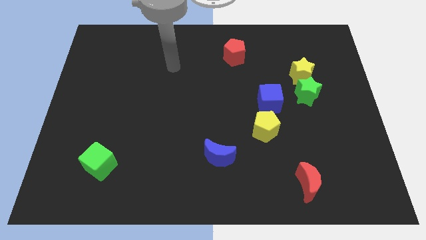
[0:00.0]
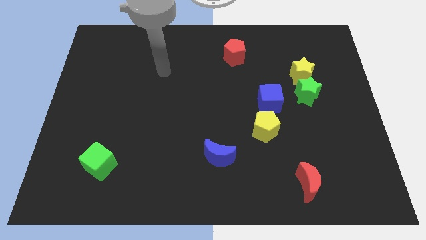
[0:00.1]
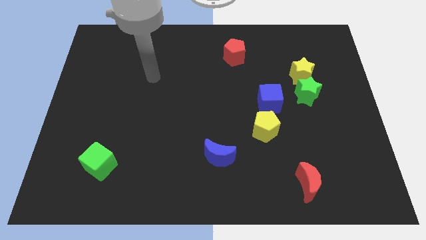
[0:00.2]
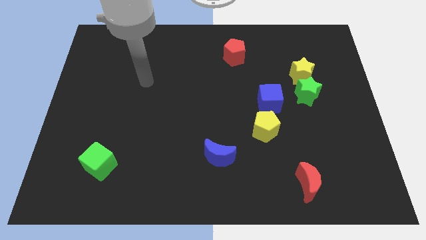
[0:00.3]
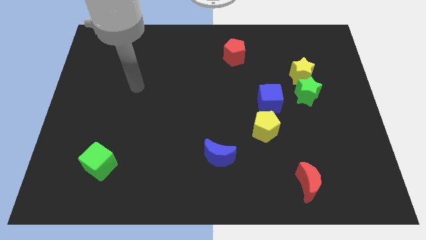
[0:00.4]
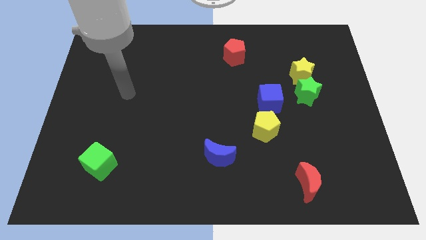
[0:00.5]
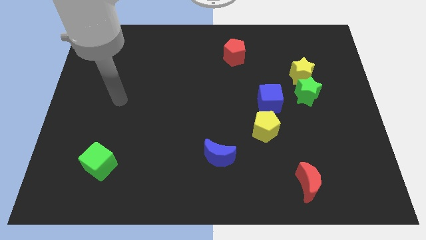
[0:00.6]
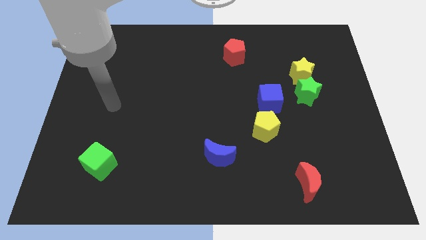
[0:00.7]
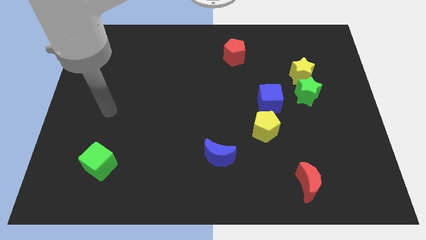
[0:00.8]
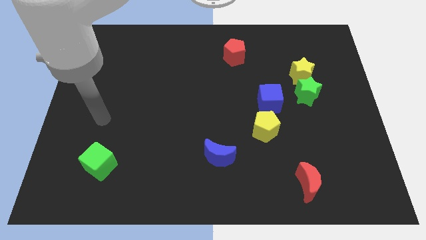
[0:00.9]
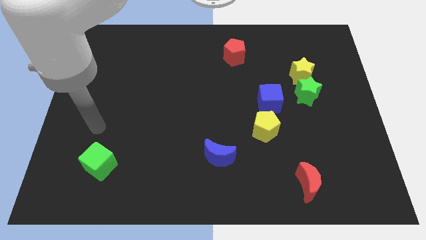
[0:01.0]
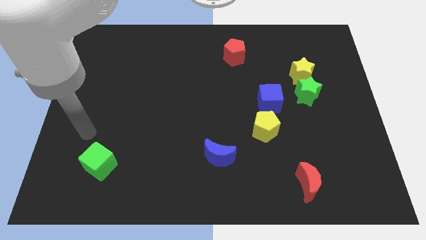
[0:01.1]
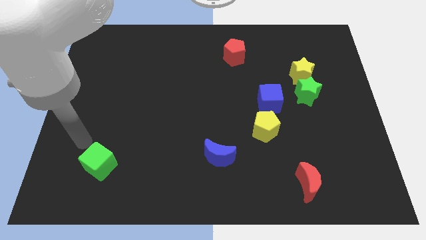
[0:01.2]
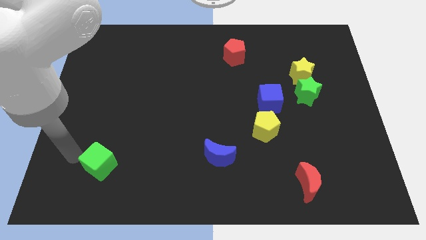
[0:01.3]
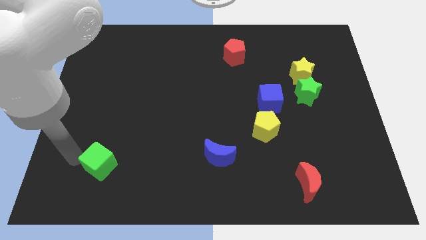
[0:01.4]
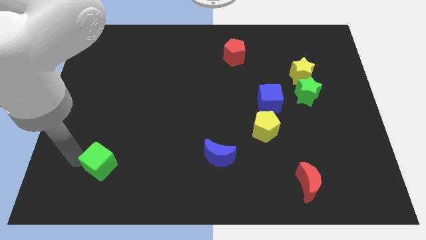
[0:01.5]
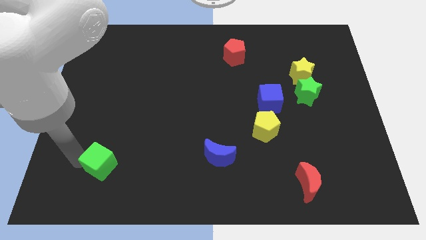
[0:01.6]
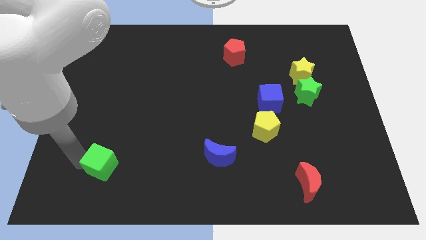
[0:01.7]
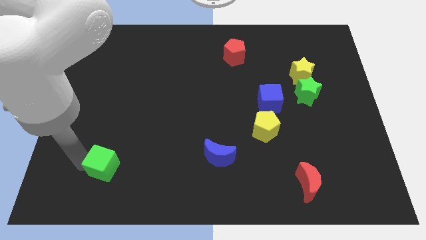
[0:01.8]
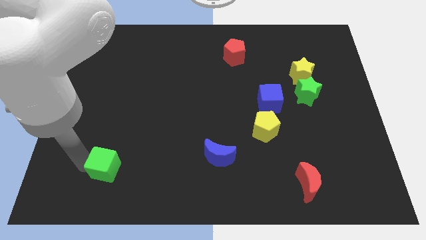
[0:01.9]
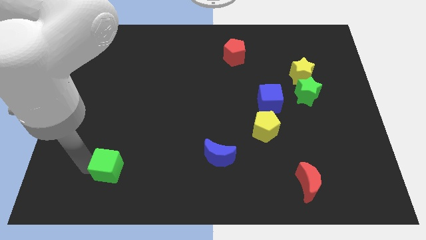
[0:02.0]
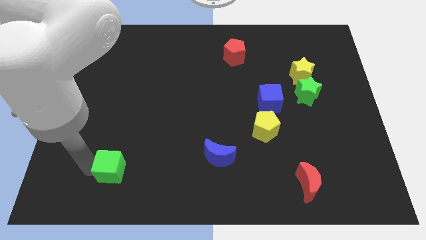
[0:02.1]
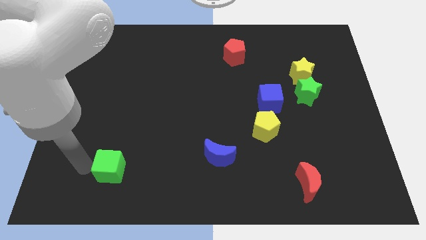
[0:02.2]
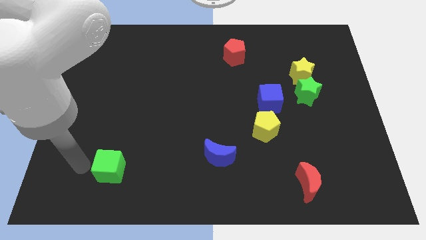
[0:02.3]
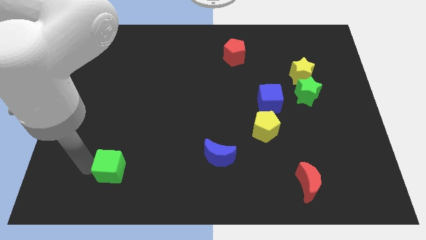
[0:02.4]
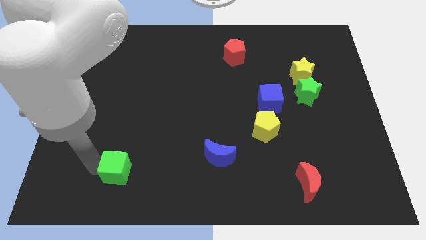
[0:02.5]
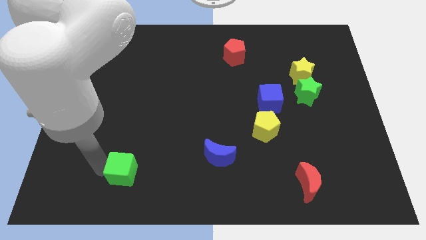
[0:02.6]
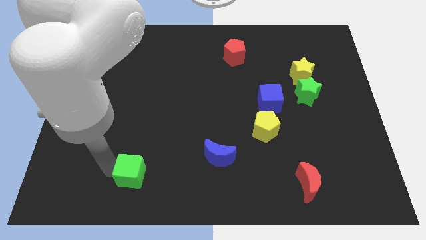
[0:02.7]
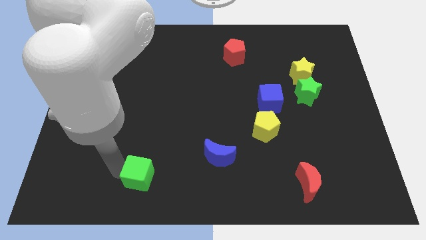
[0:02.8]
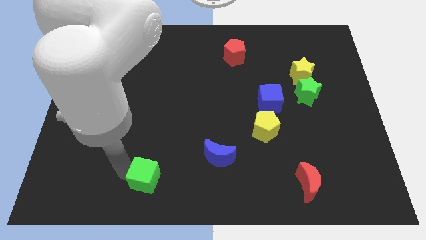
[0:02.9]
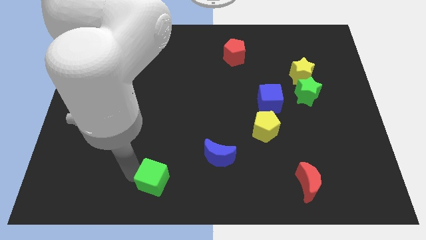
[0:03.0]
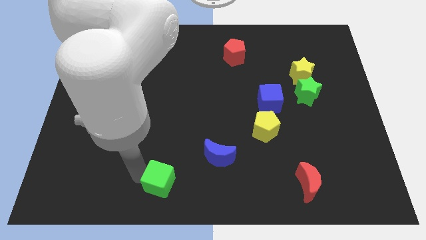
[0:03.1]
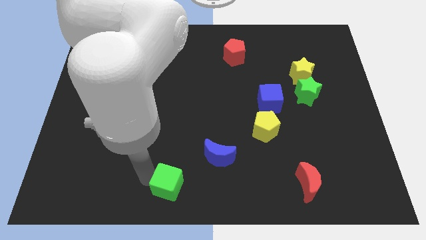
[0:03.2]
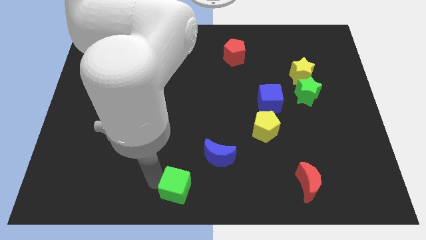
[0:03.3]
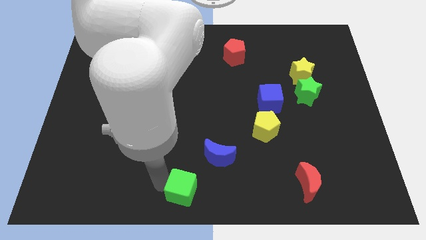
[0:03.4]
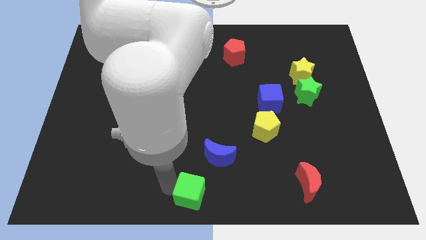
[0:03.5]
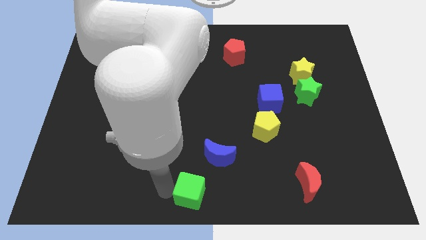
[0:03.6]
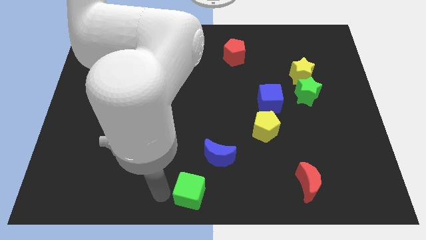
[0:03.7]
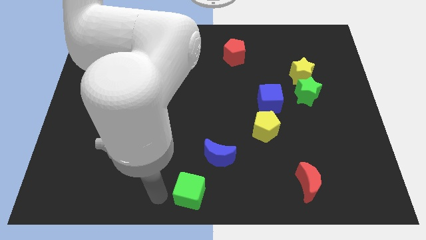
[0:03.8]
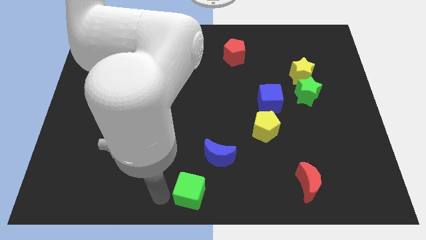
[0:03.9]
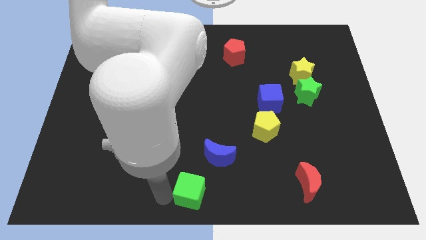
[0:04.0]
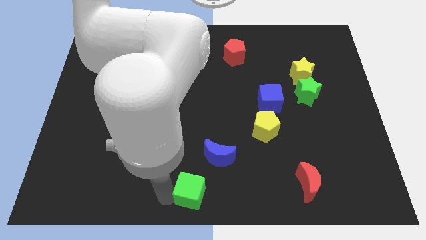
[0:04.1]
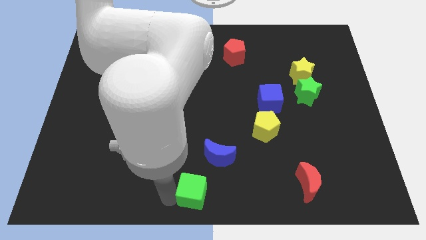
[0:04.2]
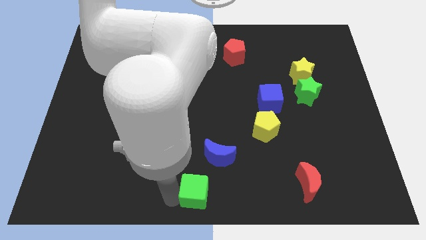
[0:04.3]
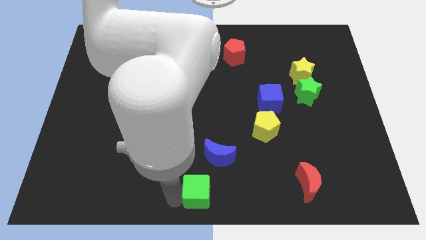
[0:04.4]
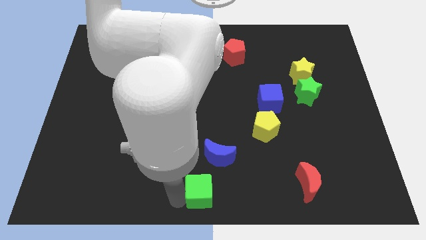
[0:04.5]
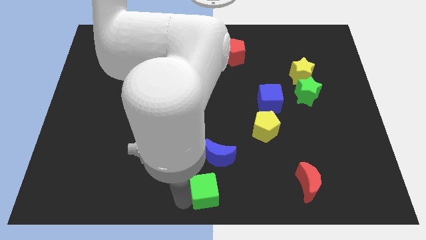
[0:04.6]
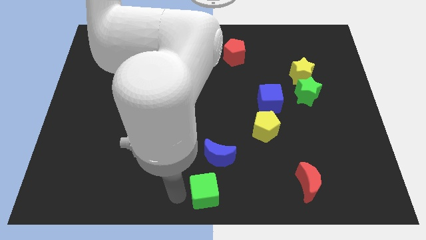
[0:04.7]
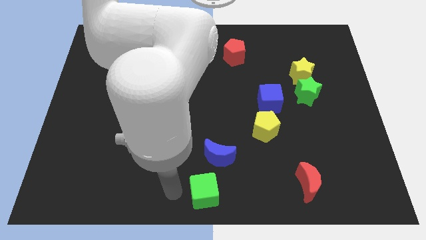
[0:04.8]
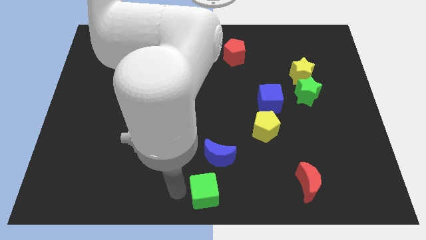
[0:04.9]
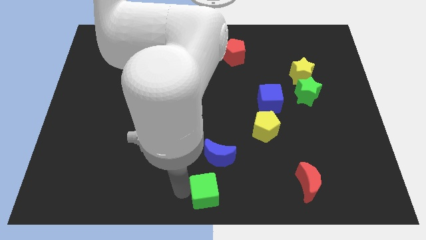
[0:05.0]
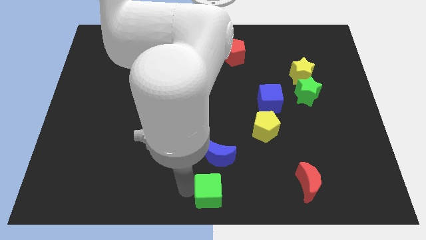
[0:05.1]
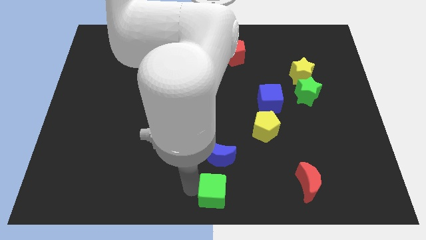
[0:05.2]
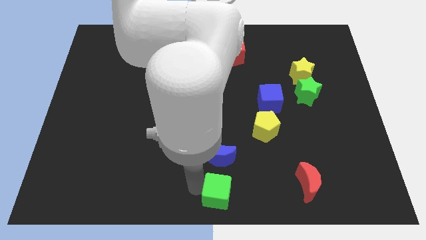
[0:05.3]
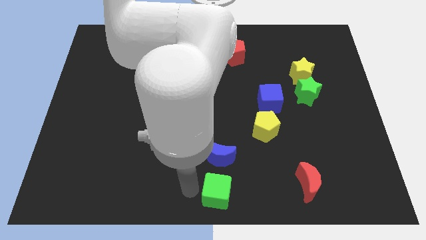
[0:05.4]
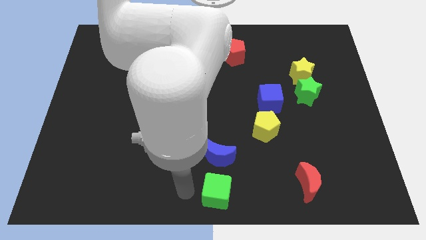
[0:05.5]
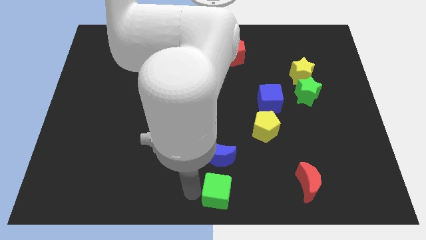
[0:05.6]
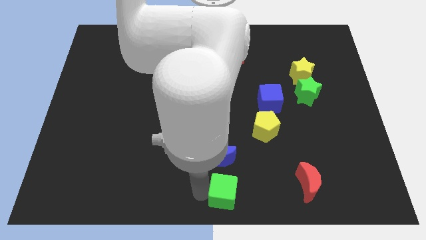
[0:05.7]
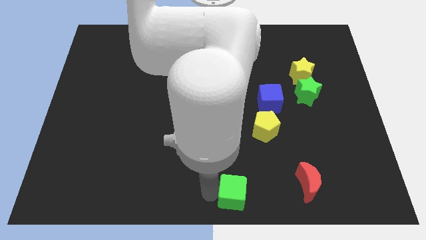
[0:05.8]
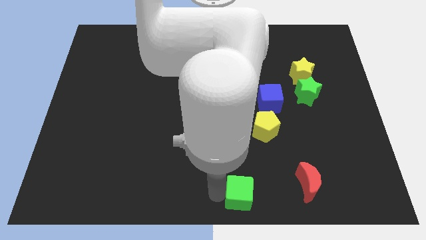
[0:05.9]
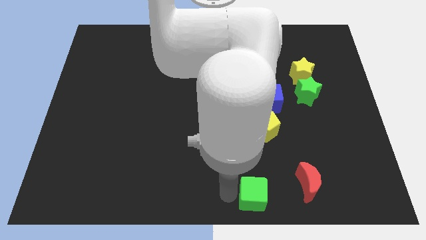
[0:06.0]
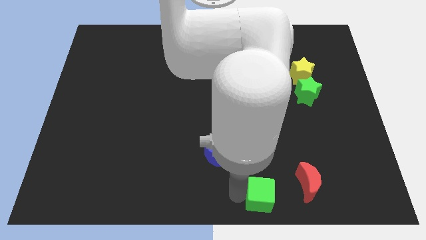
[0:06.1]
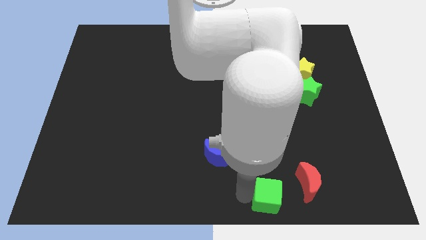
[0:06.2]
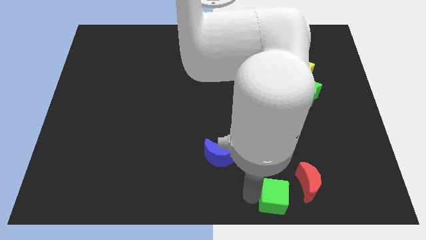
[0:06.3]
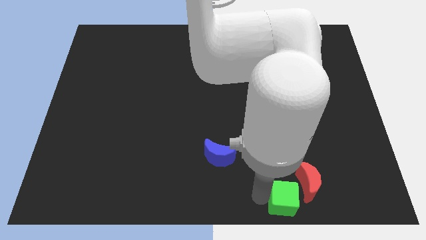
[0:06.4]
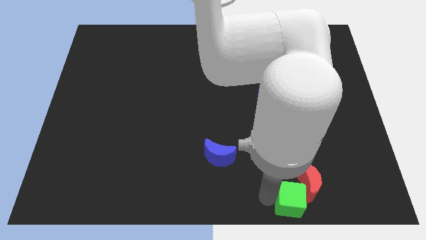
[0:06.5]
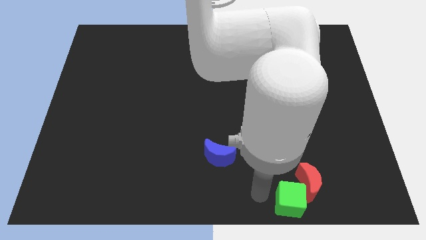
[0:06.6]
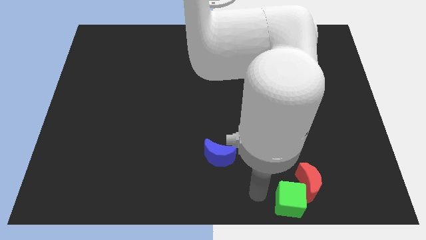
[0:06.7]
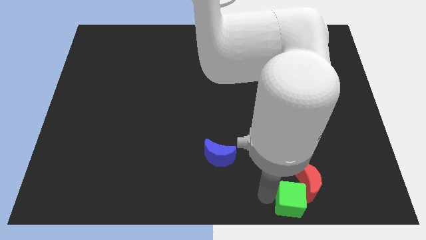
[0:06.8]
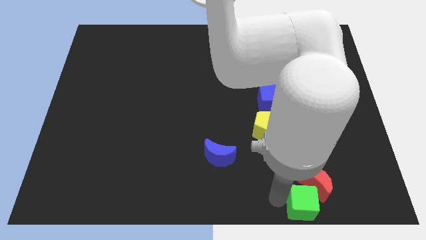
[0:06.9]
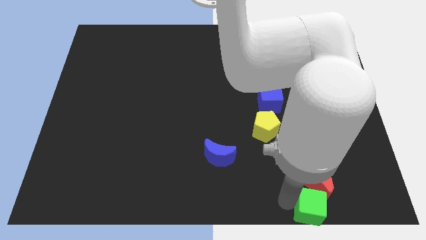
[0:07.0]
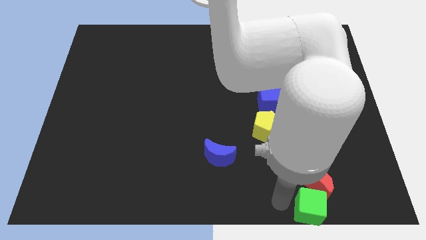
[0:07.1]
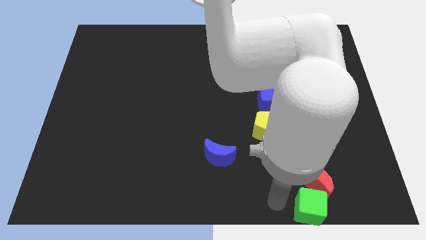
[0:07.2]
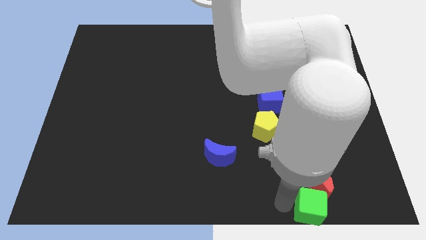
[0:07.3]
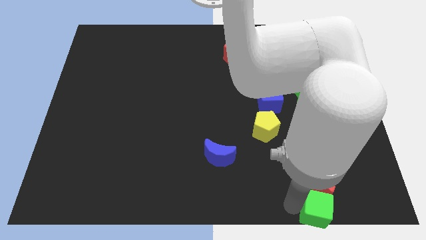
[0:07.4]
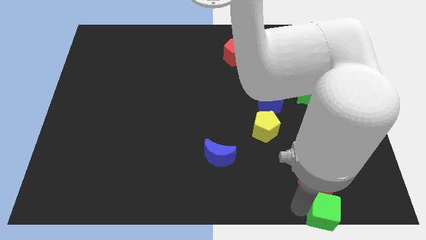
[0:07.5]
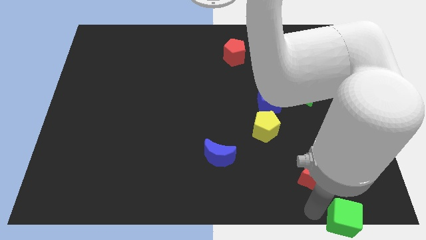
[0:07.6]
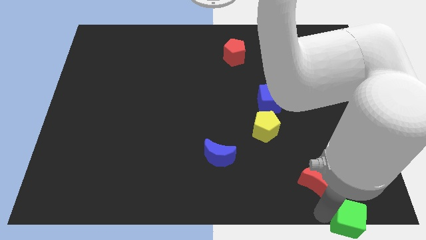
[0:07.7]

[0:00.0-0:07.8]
move the green cube to the lower right corner
